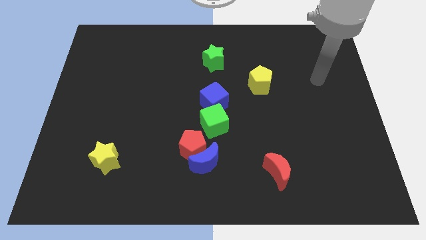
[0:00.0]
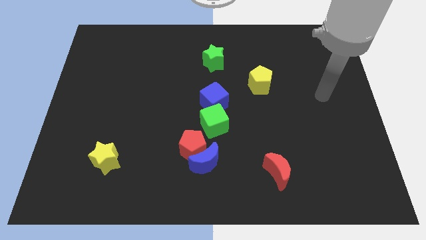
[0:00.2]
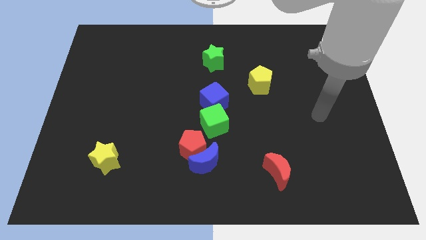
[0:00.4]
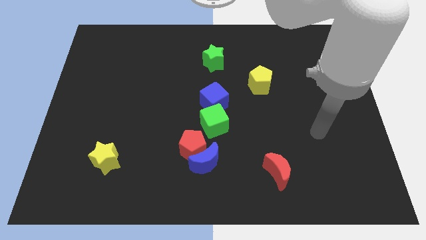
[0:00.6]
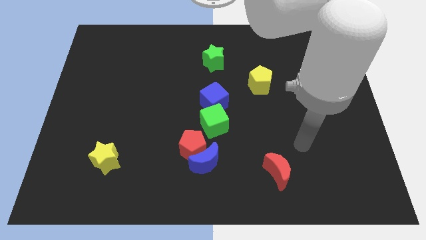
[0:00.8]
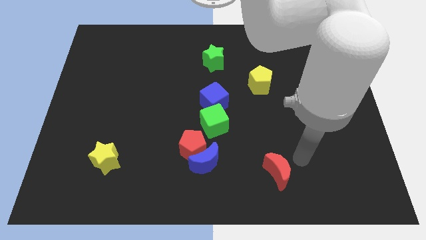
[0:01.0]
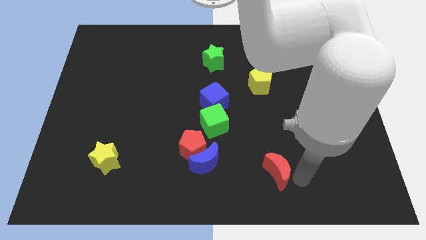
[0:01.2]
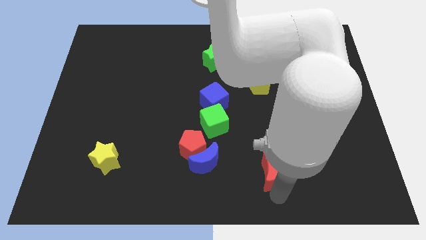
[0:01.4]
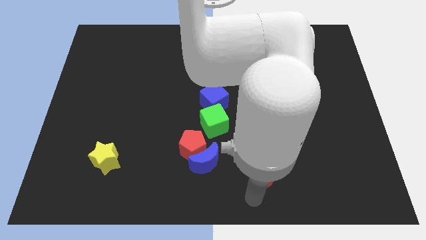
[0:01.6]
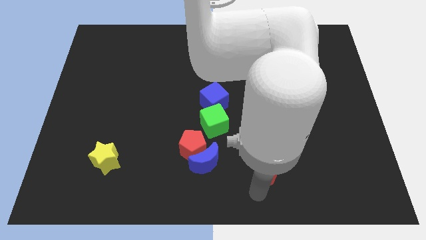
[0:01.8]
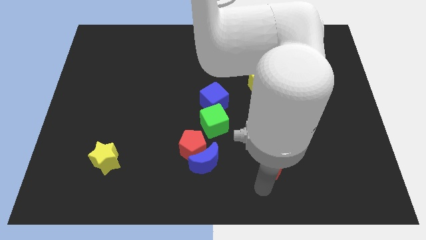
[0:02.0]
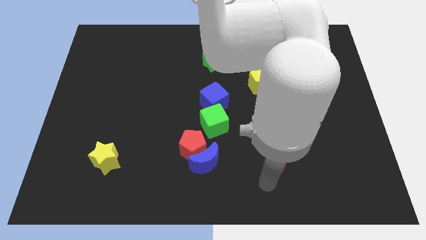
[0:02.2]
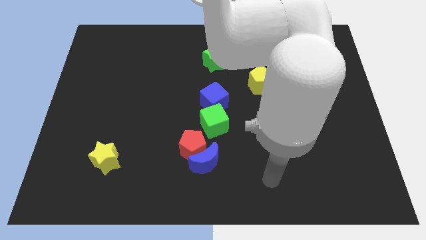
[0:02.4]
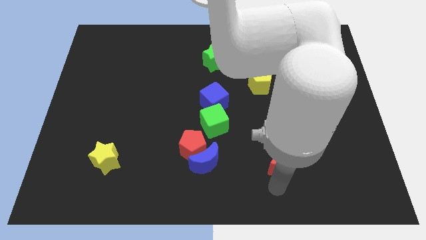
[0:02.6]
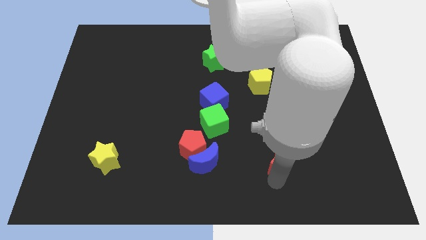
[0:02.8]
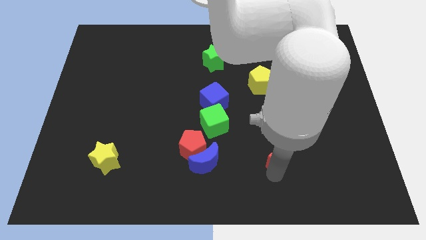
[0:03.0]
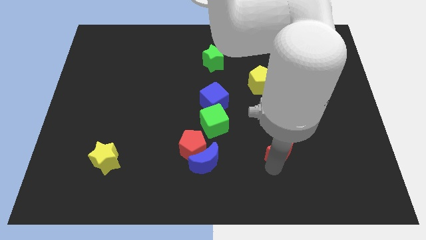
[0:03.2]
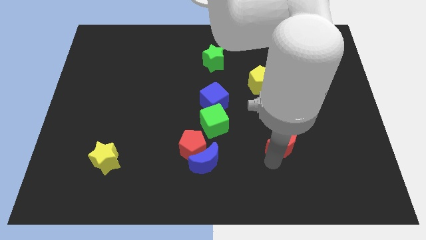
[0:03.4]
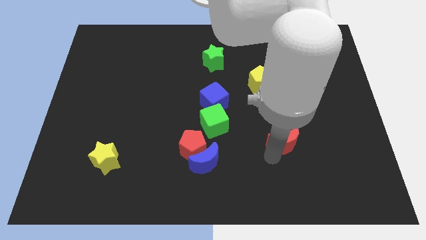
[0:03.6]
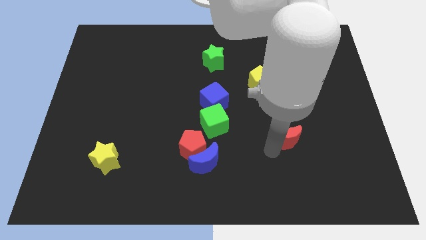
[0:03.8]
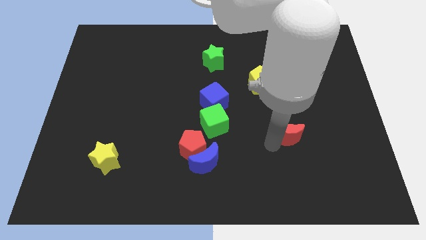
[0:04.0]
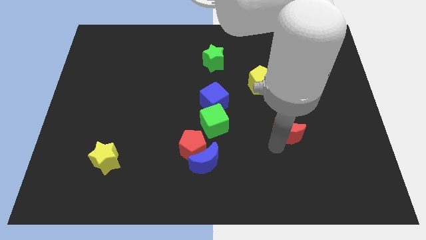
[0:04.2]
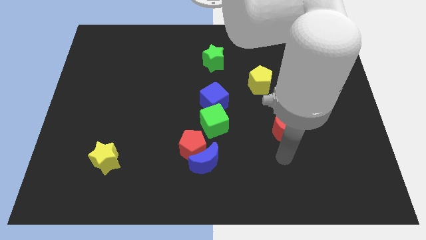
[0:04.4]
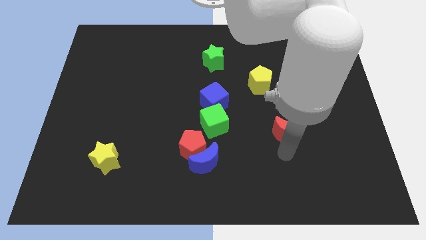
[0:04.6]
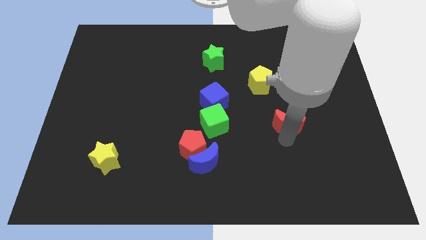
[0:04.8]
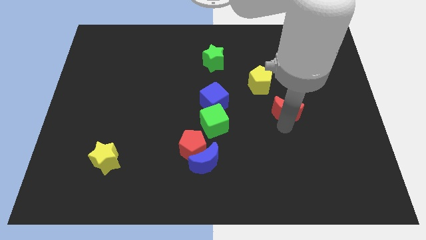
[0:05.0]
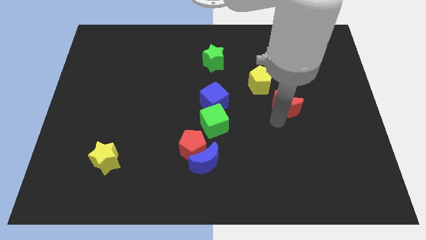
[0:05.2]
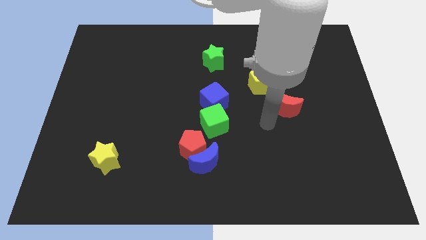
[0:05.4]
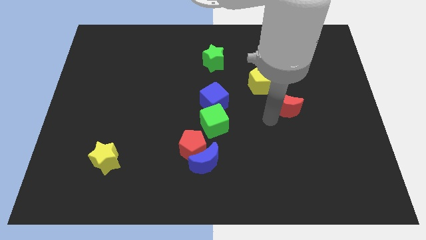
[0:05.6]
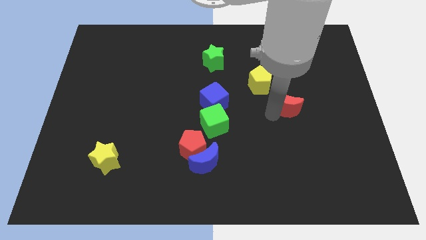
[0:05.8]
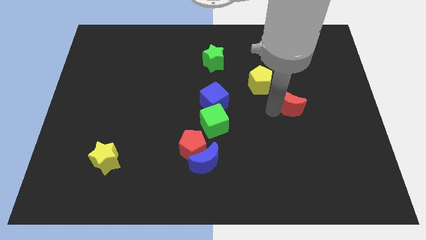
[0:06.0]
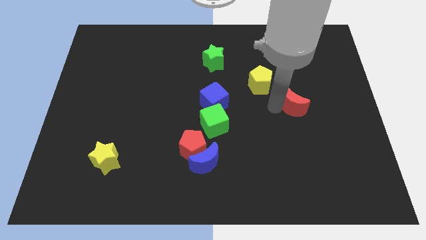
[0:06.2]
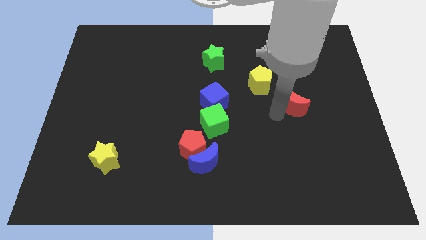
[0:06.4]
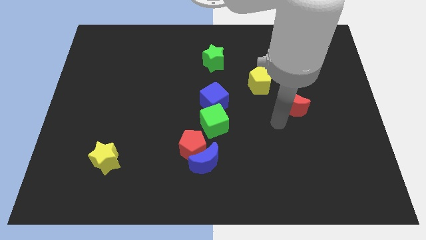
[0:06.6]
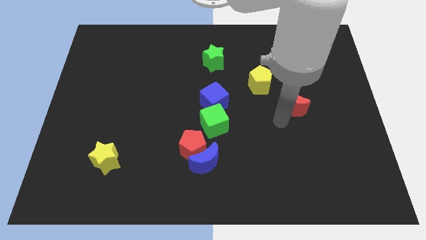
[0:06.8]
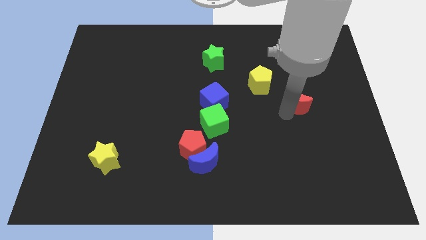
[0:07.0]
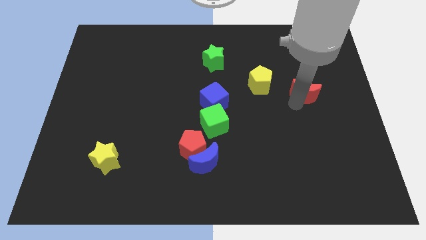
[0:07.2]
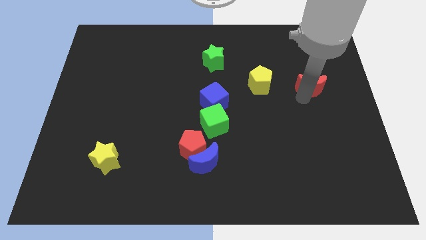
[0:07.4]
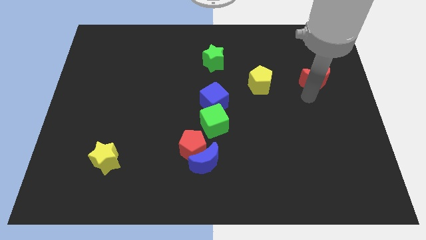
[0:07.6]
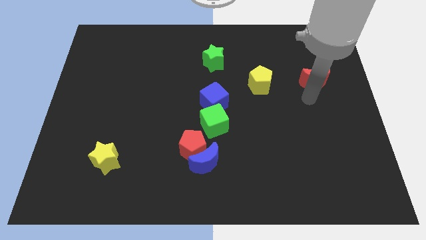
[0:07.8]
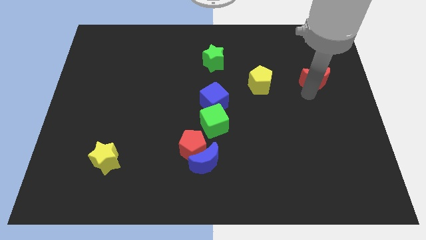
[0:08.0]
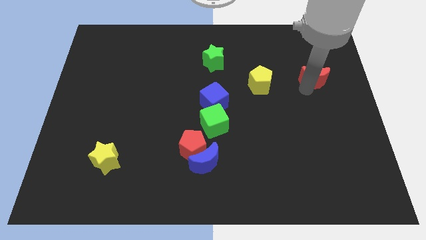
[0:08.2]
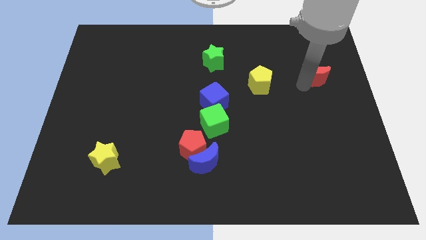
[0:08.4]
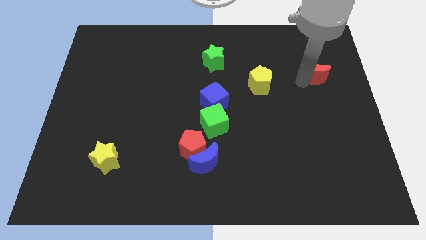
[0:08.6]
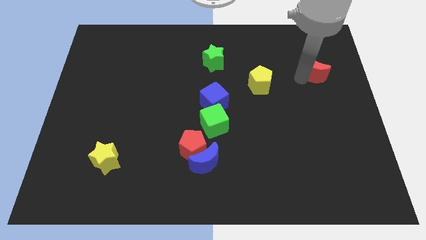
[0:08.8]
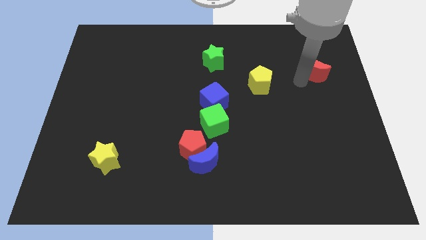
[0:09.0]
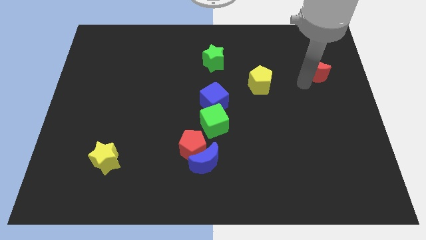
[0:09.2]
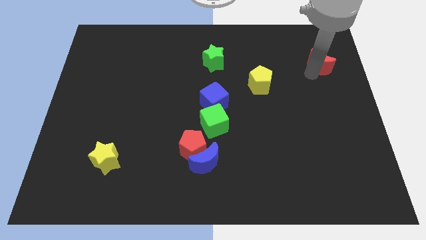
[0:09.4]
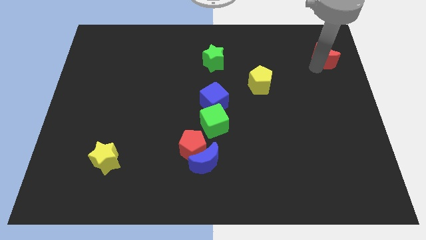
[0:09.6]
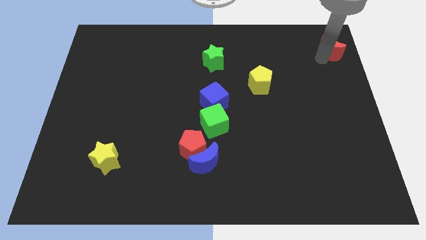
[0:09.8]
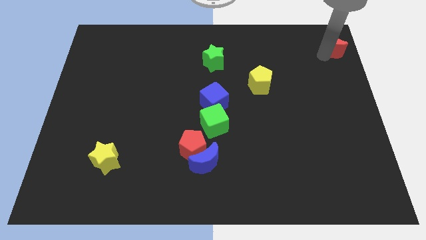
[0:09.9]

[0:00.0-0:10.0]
push the red moon to the top right of the board

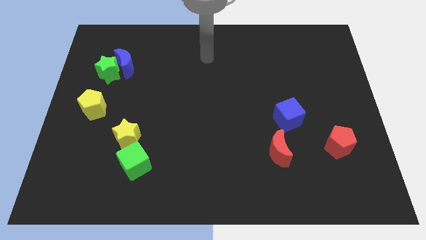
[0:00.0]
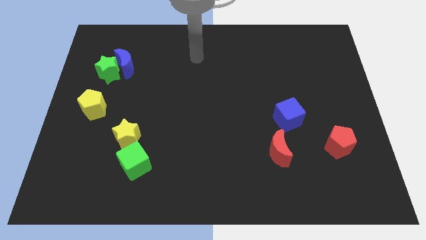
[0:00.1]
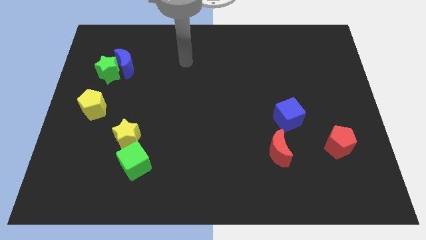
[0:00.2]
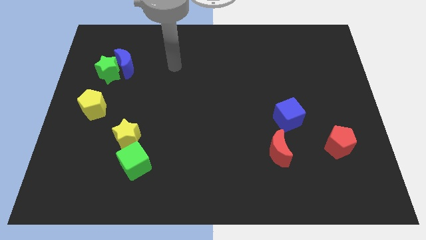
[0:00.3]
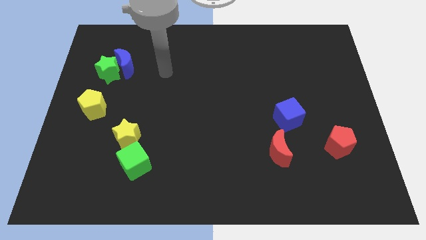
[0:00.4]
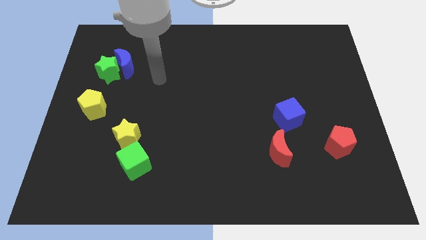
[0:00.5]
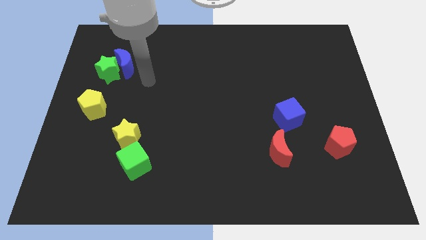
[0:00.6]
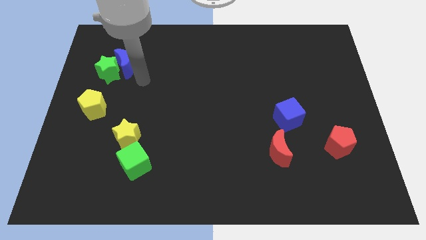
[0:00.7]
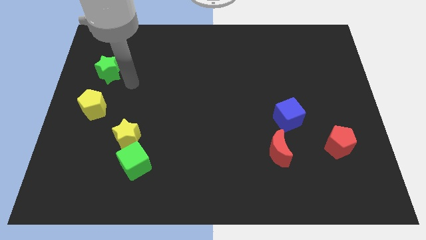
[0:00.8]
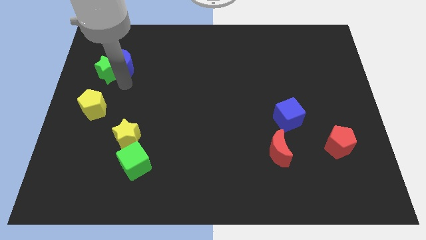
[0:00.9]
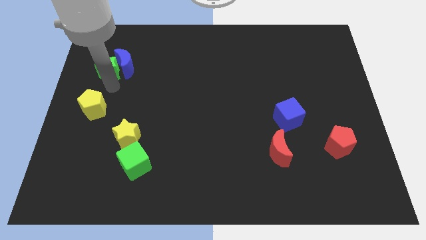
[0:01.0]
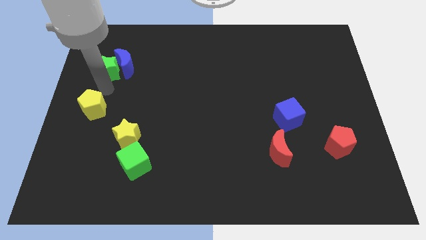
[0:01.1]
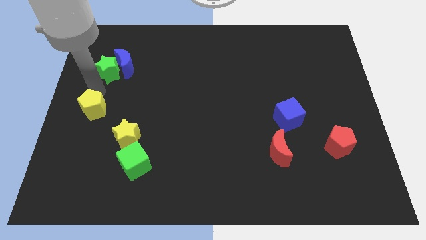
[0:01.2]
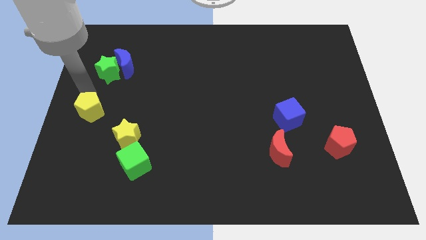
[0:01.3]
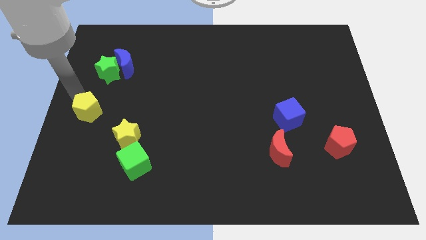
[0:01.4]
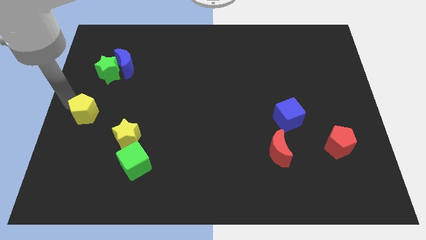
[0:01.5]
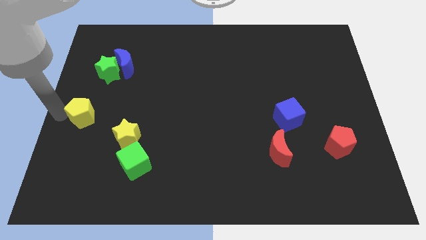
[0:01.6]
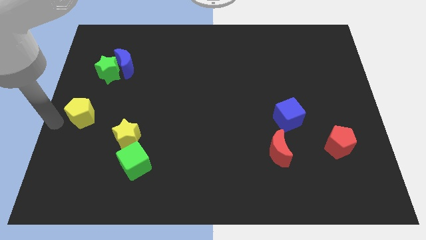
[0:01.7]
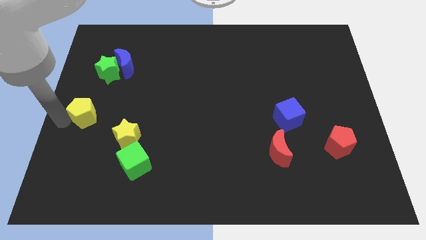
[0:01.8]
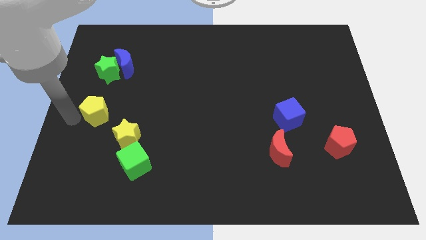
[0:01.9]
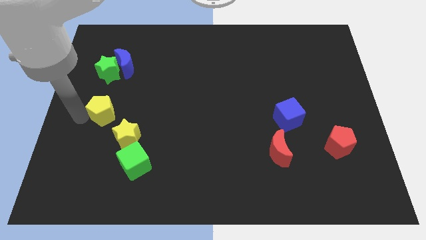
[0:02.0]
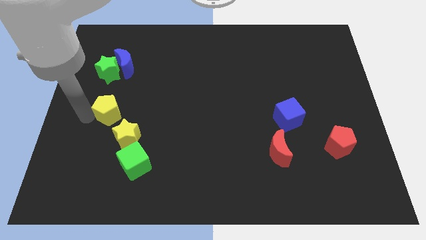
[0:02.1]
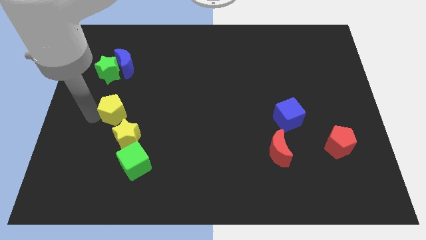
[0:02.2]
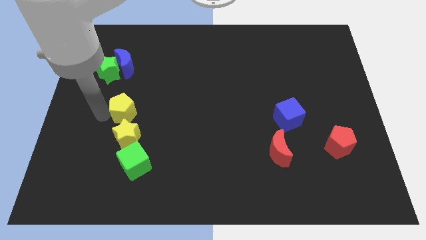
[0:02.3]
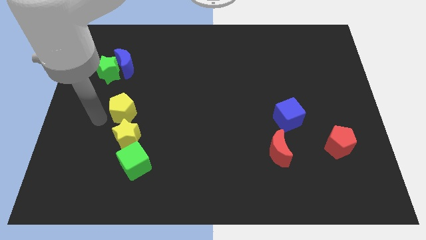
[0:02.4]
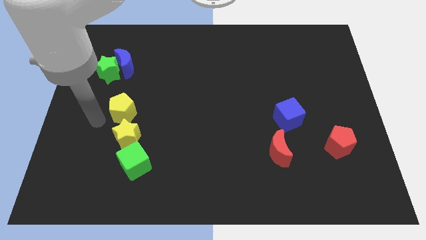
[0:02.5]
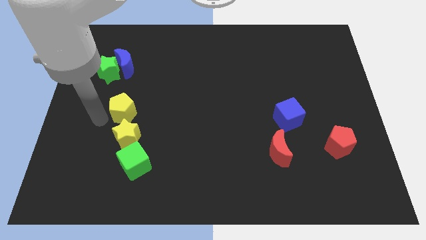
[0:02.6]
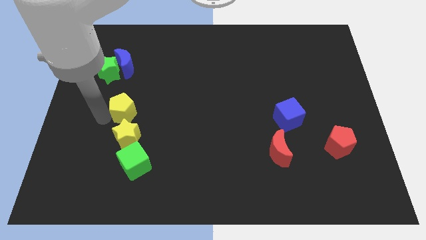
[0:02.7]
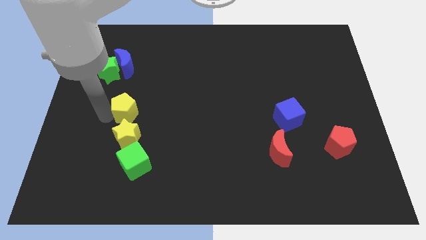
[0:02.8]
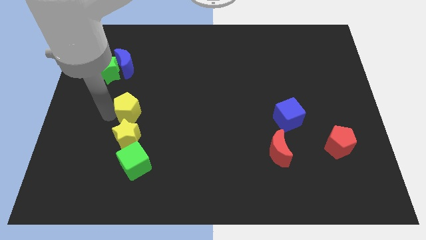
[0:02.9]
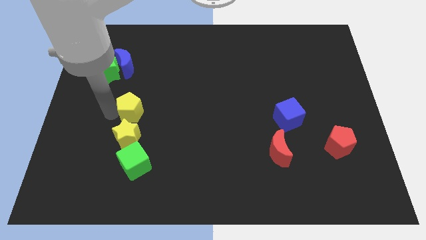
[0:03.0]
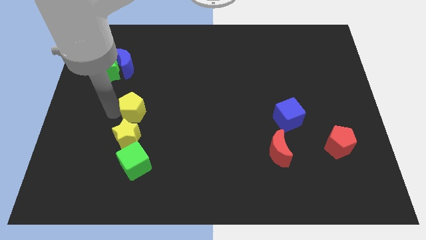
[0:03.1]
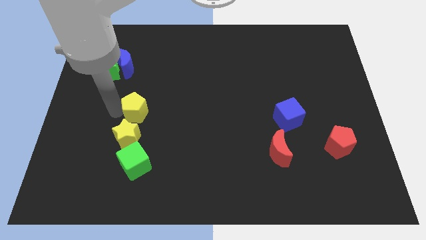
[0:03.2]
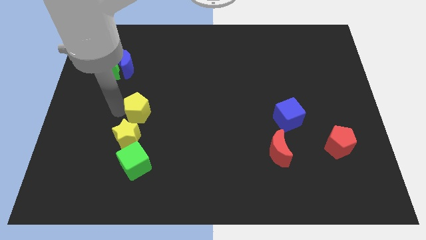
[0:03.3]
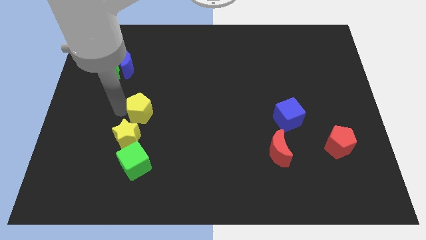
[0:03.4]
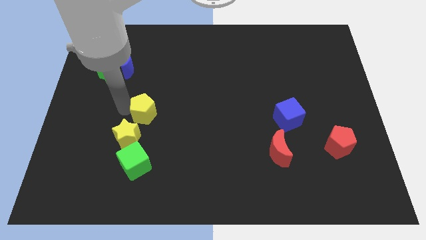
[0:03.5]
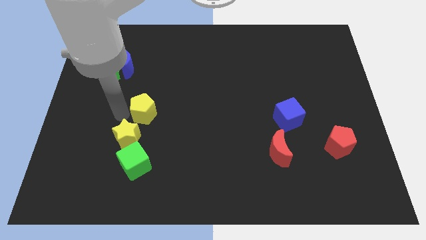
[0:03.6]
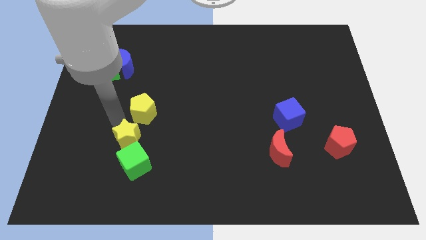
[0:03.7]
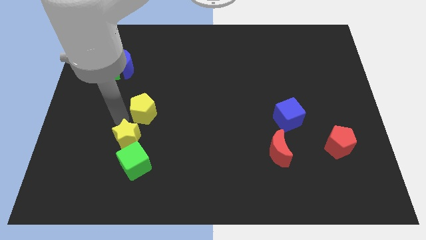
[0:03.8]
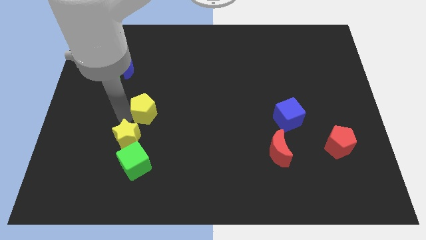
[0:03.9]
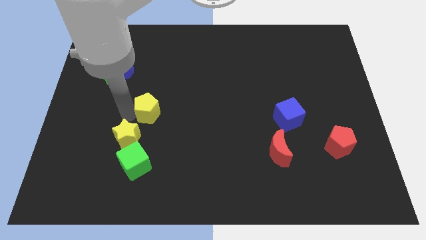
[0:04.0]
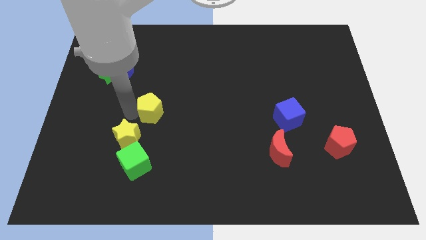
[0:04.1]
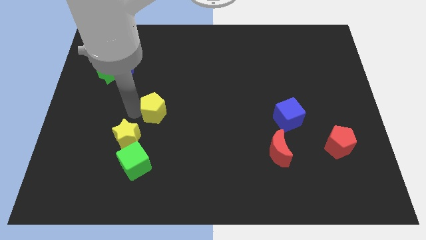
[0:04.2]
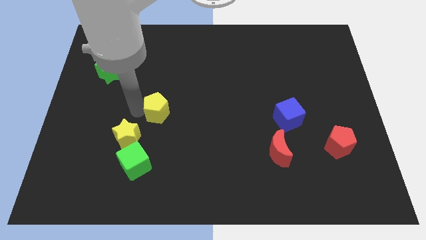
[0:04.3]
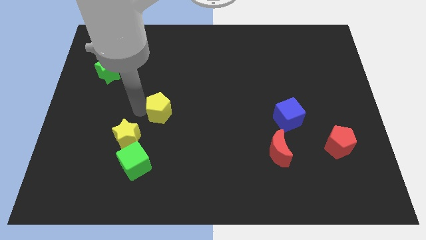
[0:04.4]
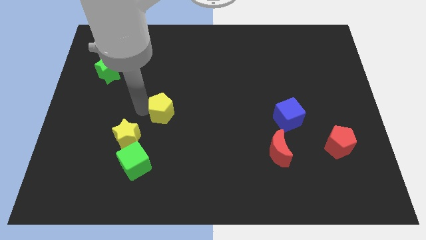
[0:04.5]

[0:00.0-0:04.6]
push the yellow pentagon to the center
